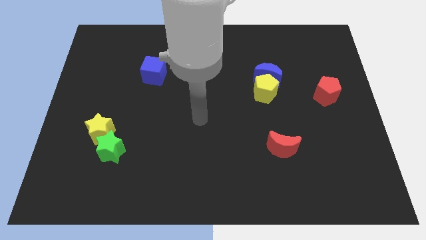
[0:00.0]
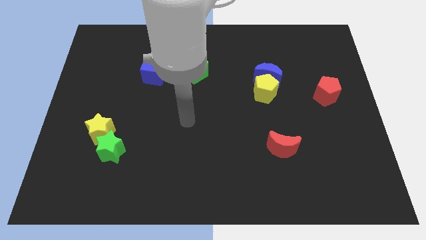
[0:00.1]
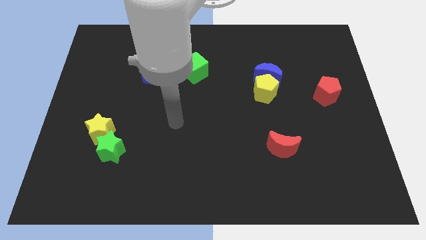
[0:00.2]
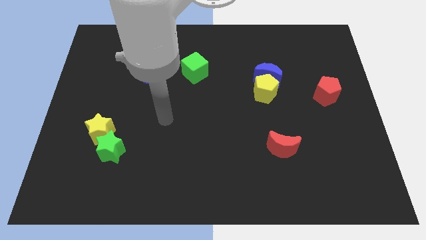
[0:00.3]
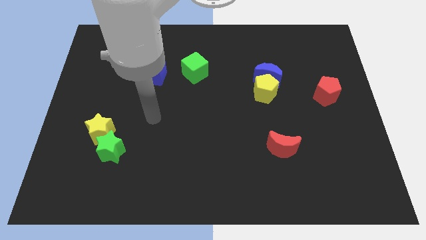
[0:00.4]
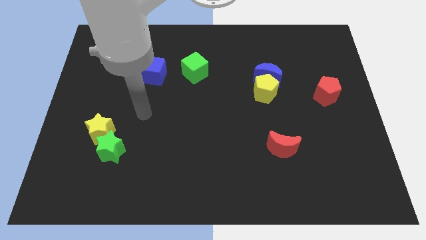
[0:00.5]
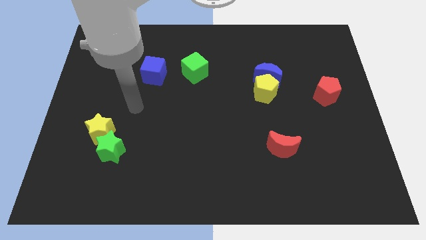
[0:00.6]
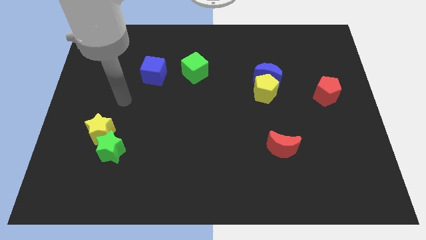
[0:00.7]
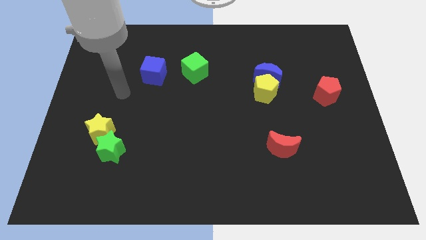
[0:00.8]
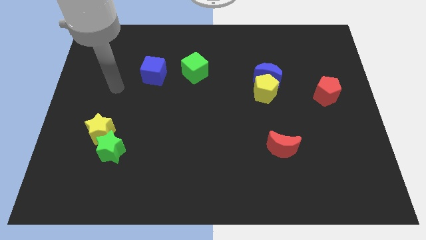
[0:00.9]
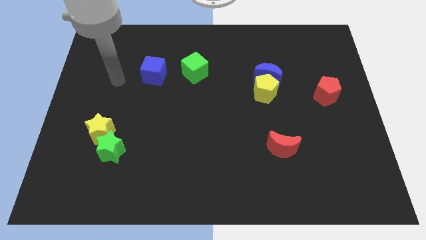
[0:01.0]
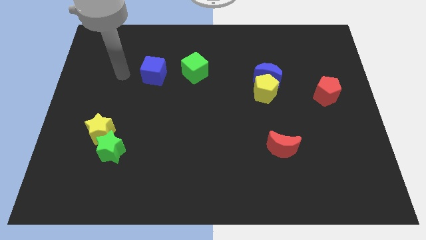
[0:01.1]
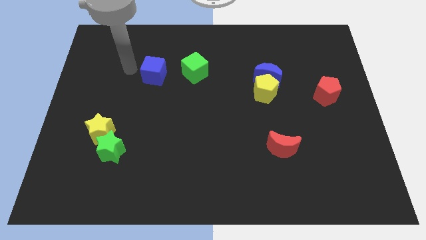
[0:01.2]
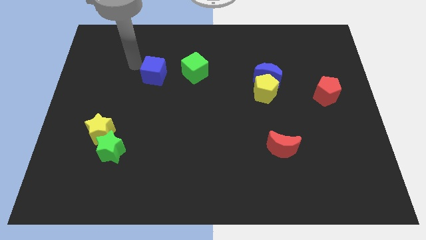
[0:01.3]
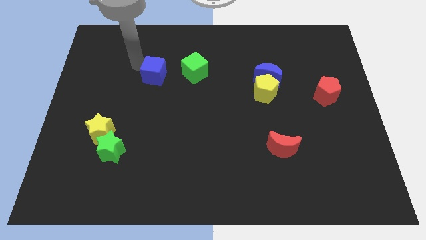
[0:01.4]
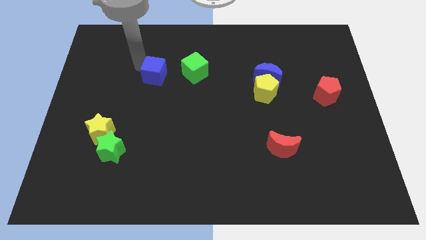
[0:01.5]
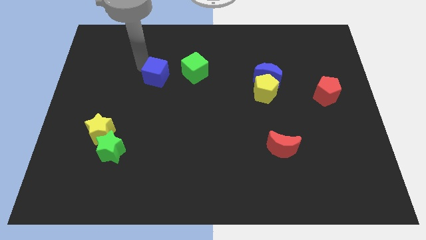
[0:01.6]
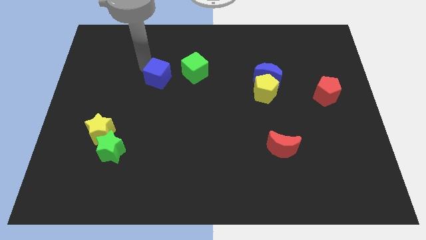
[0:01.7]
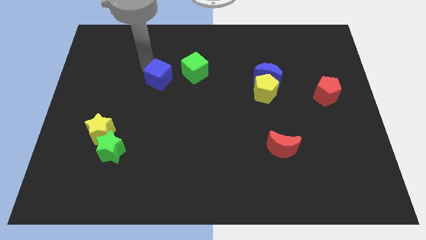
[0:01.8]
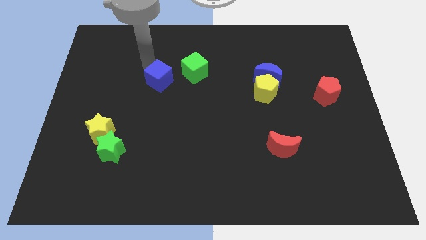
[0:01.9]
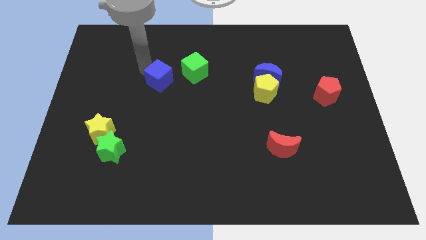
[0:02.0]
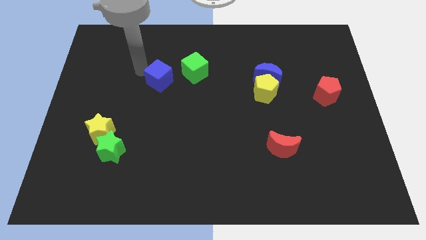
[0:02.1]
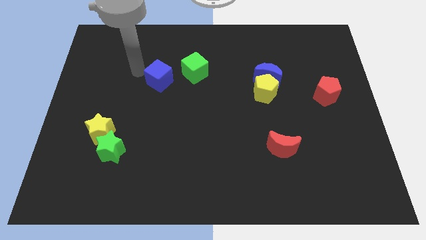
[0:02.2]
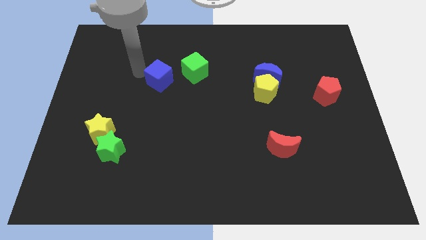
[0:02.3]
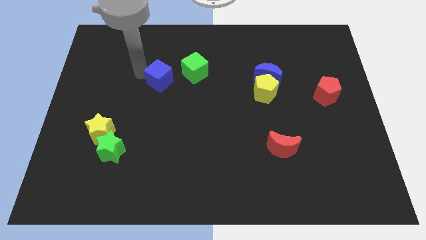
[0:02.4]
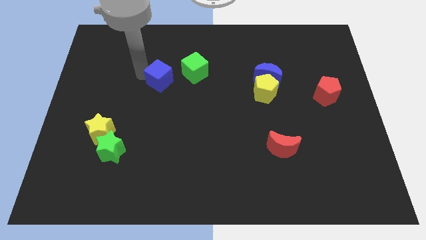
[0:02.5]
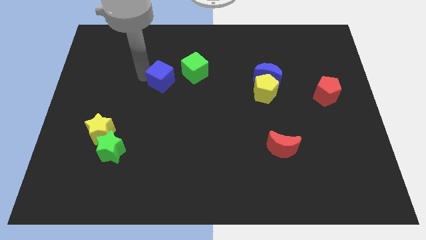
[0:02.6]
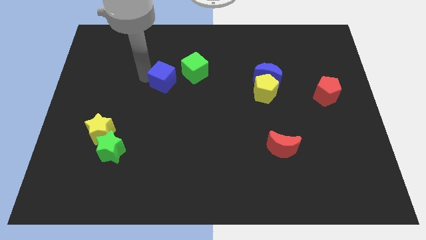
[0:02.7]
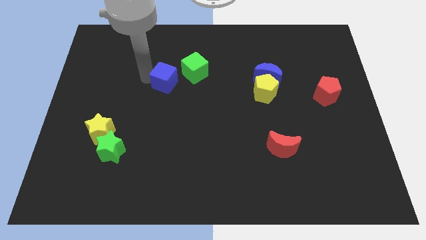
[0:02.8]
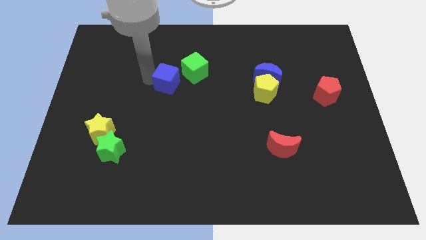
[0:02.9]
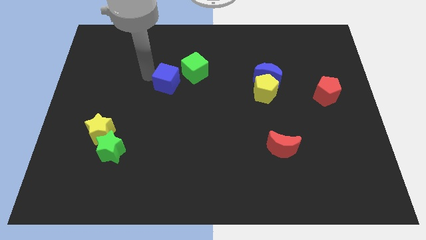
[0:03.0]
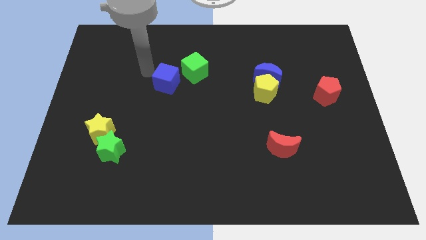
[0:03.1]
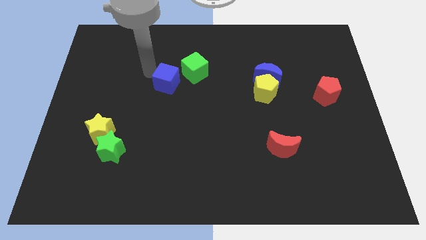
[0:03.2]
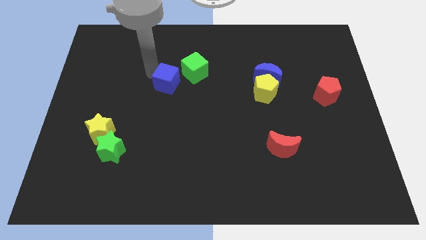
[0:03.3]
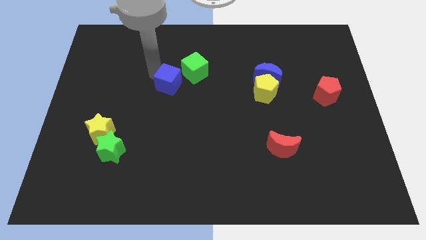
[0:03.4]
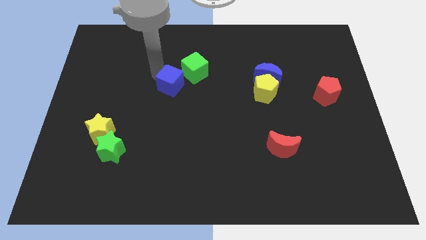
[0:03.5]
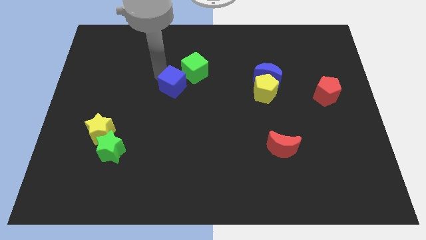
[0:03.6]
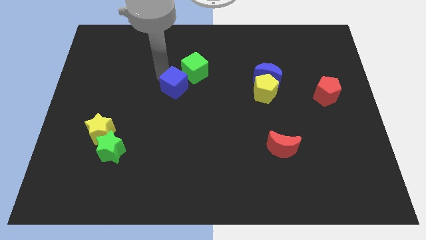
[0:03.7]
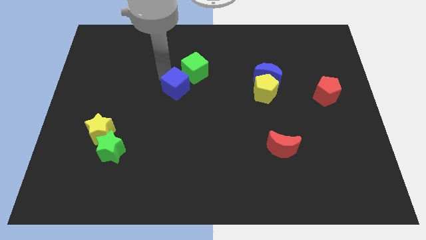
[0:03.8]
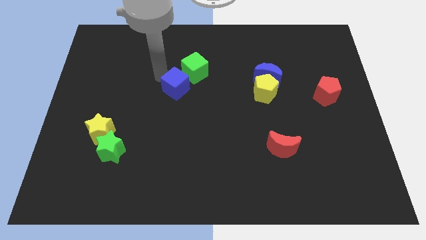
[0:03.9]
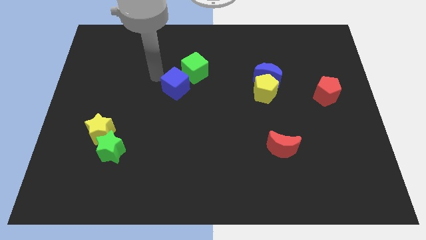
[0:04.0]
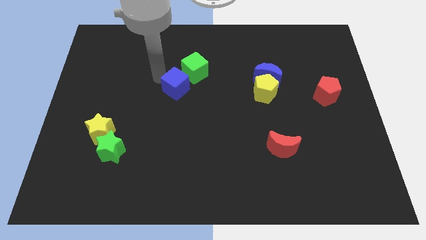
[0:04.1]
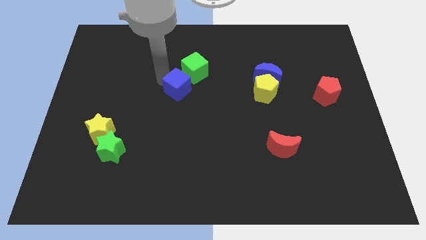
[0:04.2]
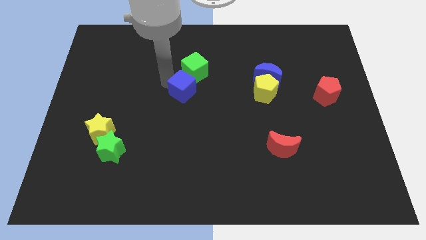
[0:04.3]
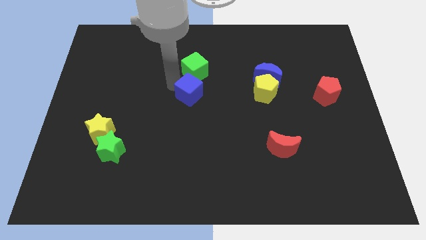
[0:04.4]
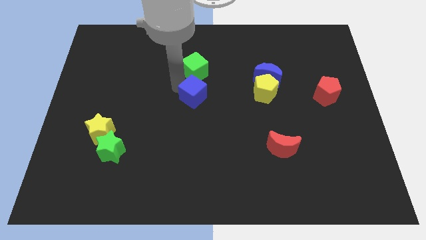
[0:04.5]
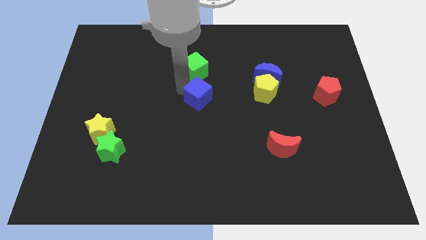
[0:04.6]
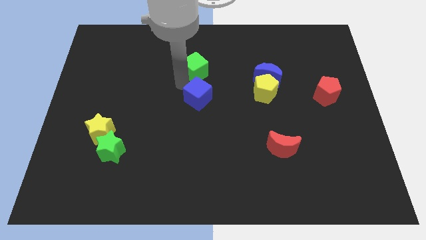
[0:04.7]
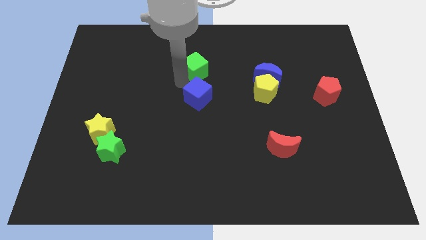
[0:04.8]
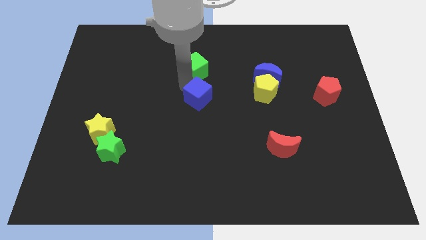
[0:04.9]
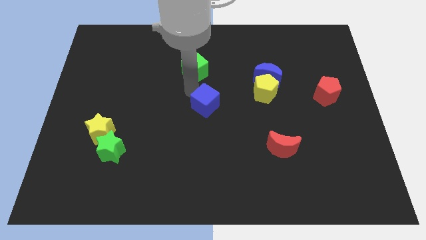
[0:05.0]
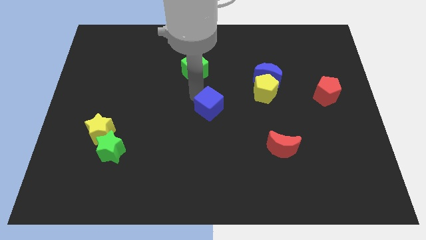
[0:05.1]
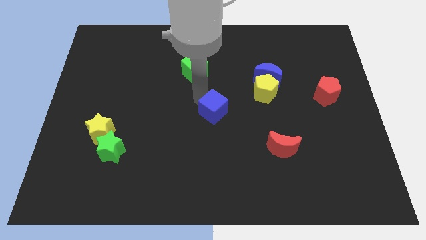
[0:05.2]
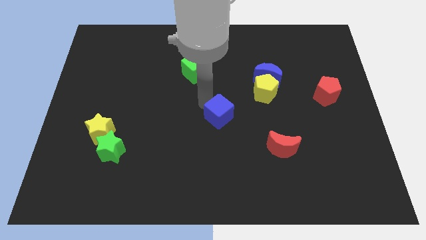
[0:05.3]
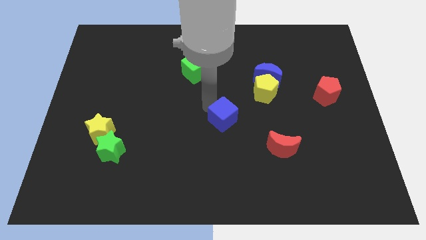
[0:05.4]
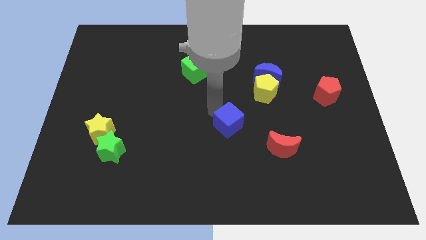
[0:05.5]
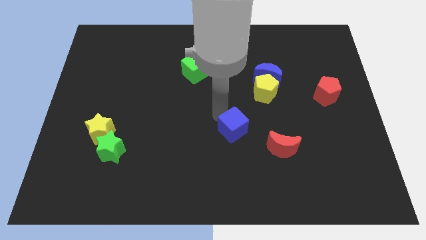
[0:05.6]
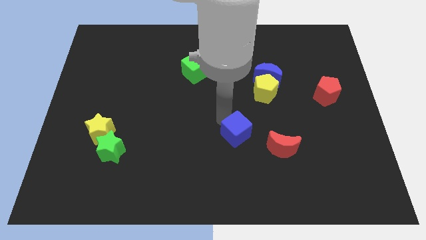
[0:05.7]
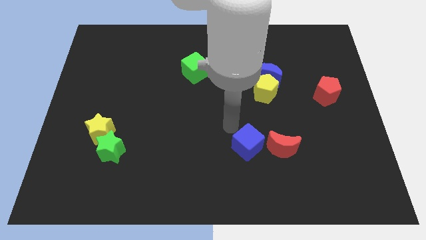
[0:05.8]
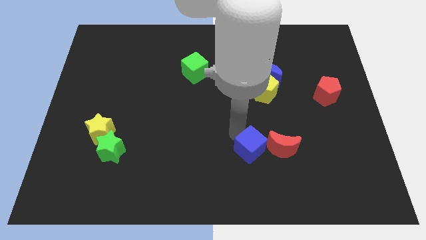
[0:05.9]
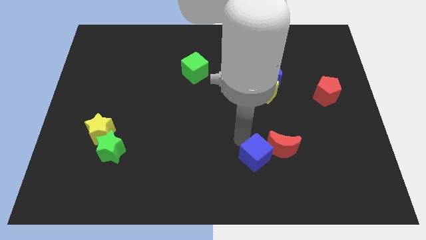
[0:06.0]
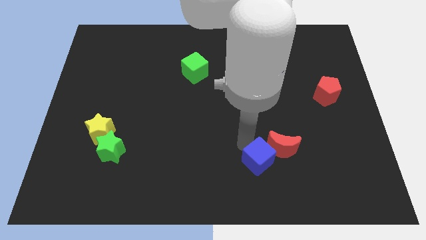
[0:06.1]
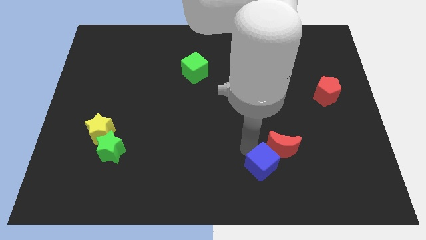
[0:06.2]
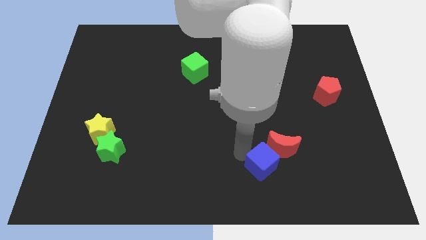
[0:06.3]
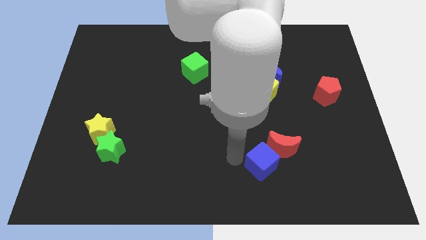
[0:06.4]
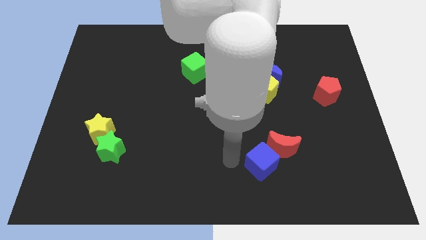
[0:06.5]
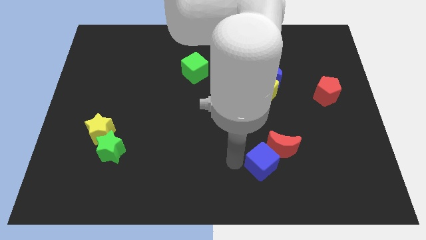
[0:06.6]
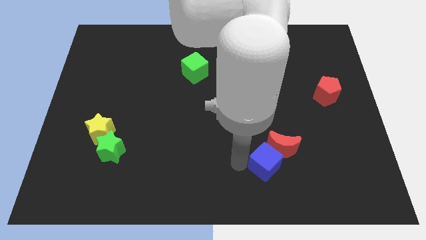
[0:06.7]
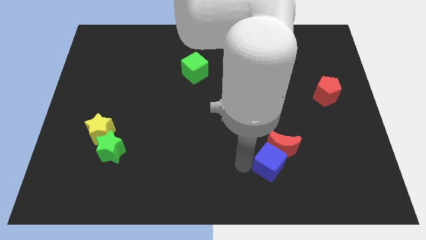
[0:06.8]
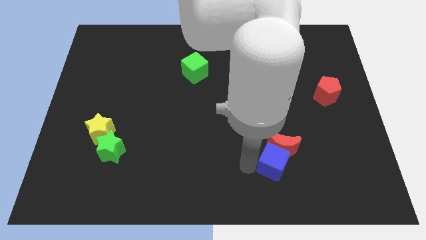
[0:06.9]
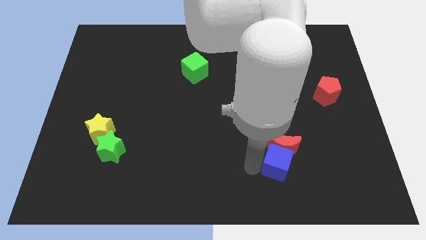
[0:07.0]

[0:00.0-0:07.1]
slide the blue cube diagonally down and to the right of the red moon

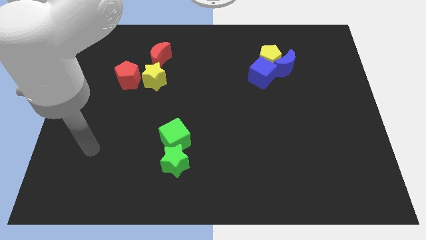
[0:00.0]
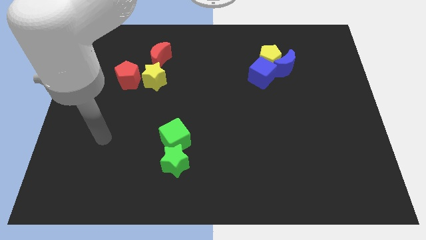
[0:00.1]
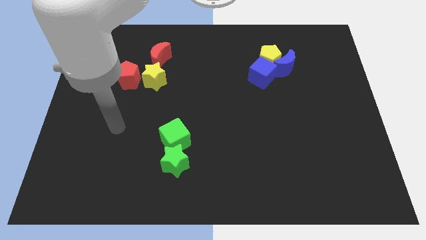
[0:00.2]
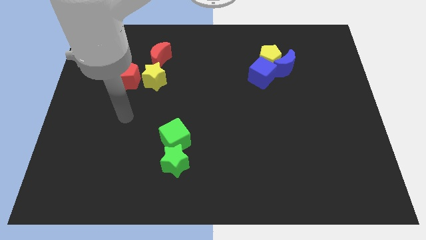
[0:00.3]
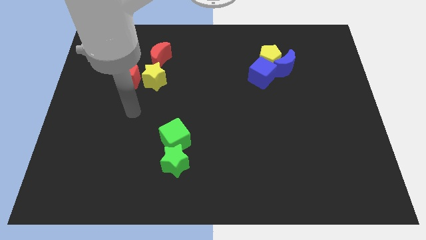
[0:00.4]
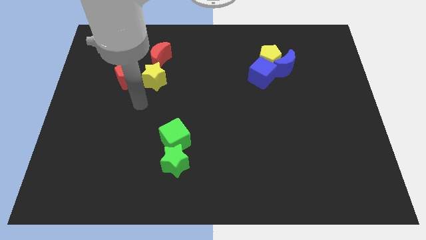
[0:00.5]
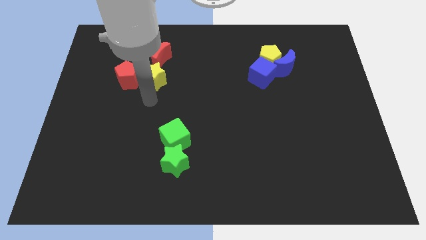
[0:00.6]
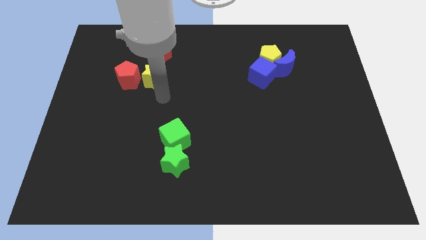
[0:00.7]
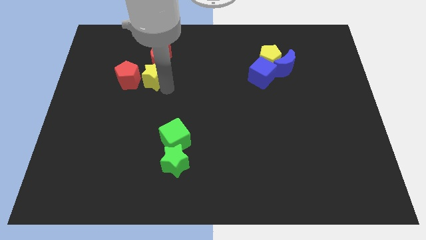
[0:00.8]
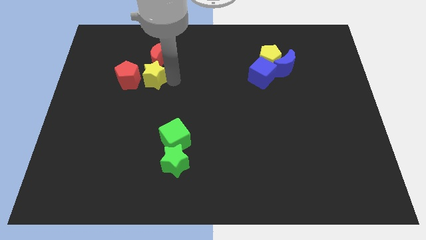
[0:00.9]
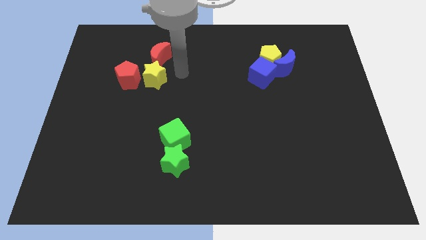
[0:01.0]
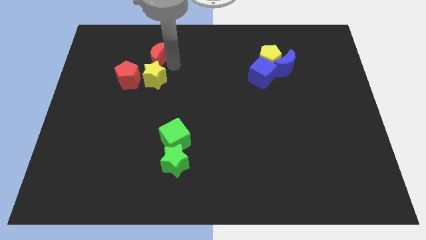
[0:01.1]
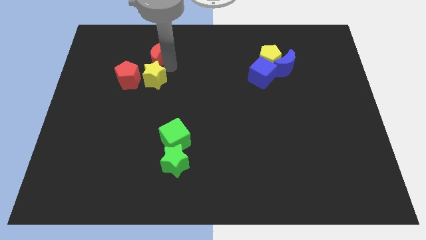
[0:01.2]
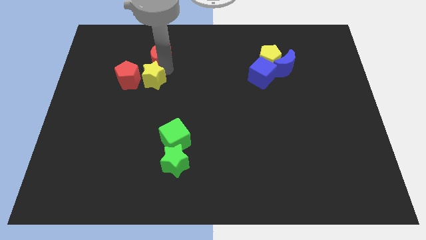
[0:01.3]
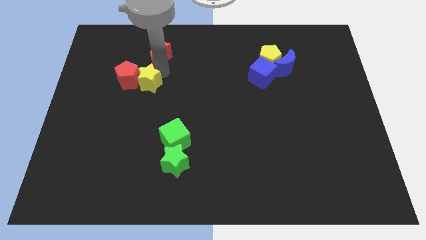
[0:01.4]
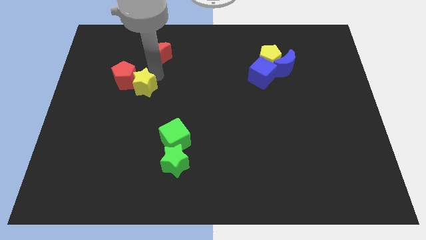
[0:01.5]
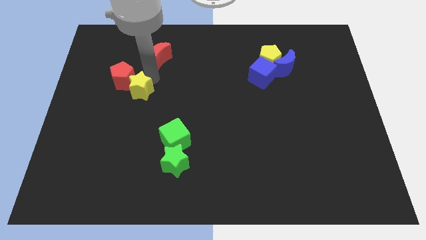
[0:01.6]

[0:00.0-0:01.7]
slide the yellow star below the red pentagon
